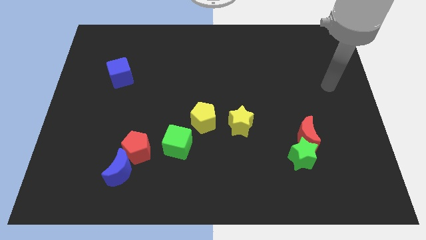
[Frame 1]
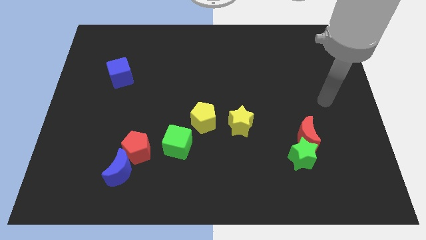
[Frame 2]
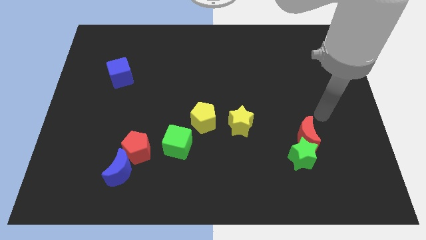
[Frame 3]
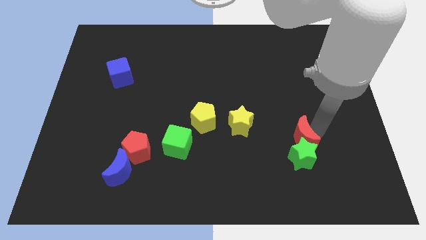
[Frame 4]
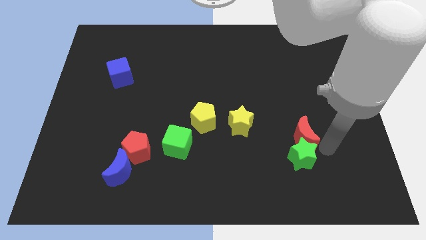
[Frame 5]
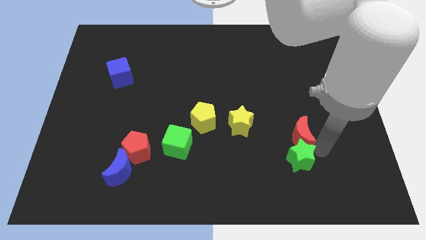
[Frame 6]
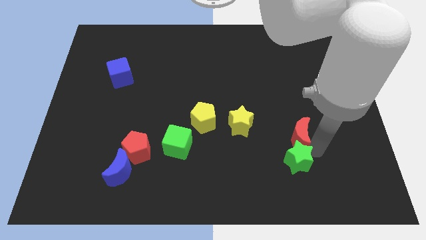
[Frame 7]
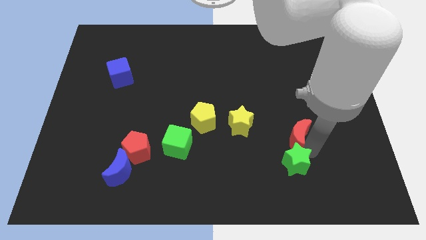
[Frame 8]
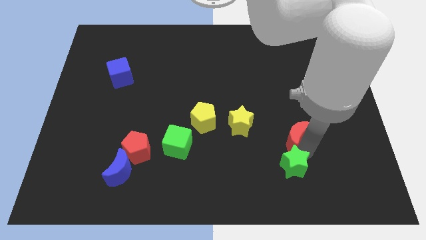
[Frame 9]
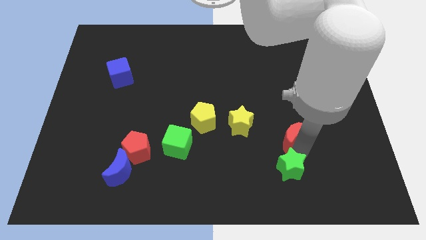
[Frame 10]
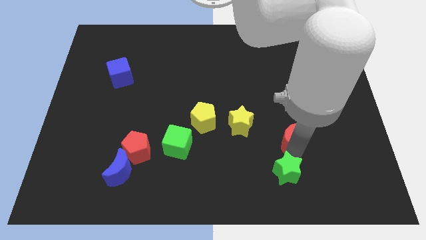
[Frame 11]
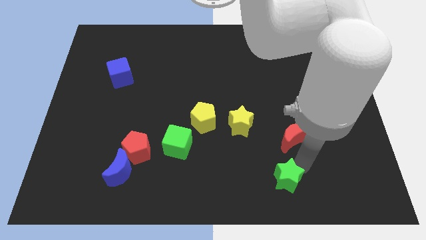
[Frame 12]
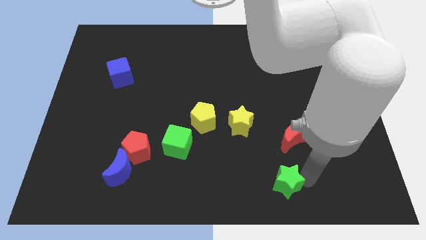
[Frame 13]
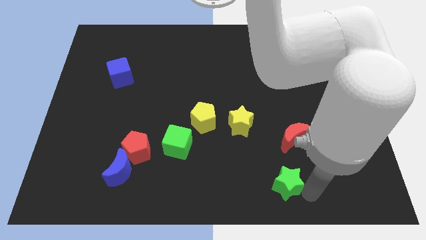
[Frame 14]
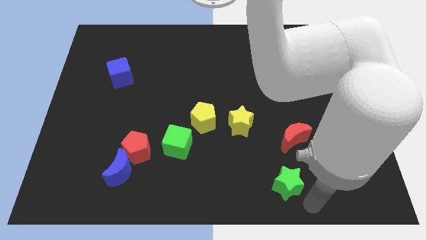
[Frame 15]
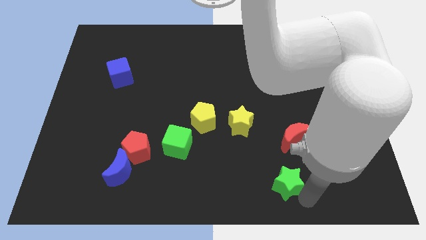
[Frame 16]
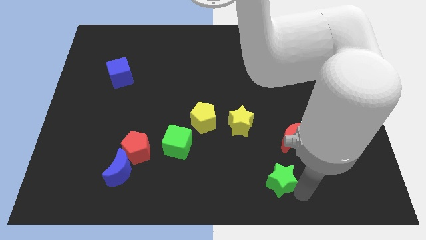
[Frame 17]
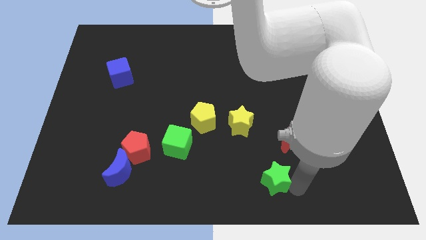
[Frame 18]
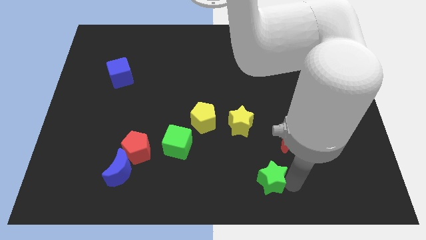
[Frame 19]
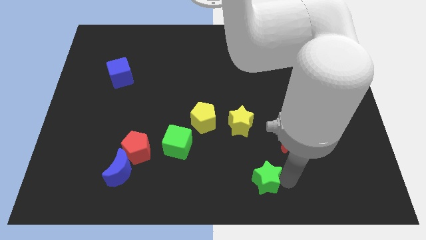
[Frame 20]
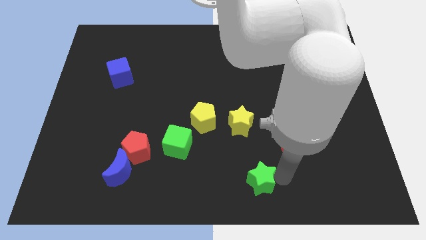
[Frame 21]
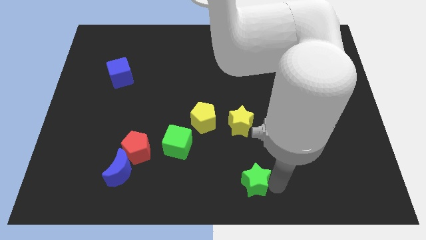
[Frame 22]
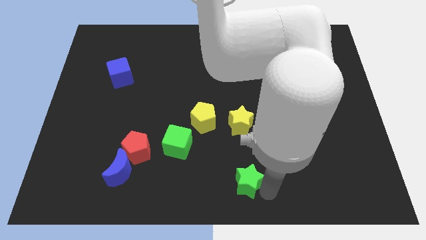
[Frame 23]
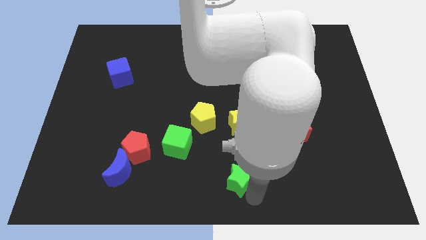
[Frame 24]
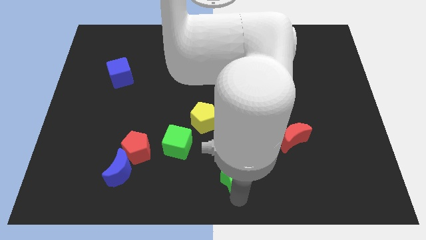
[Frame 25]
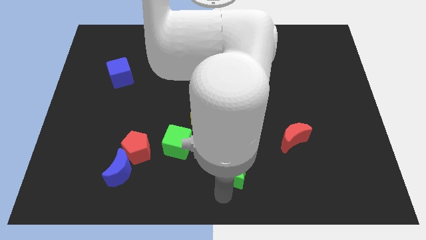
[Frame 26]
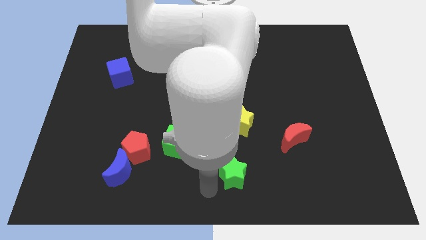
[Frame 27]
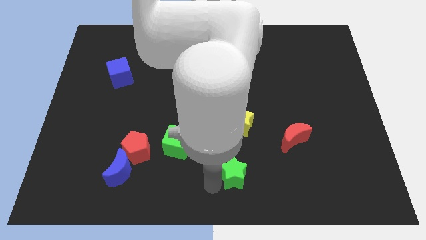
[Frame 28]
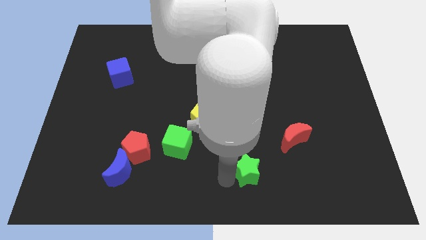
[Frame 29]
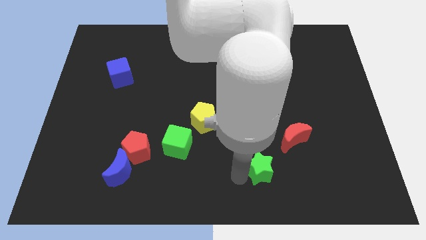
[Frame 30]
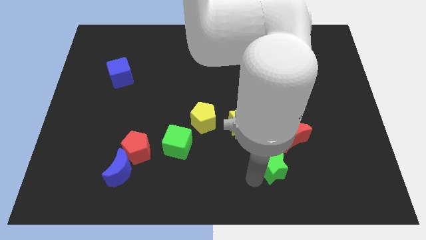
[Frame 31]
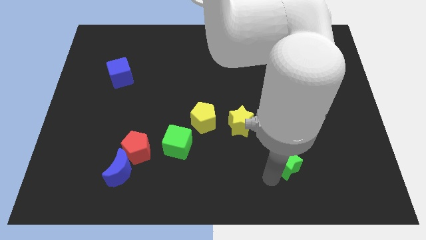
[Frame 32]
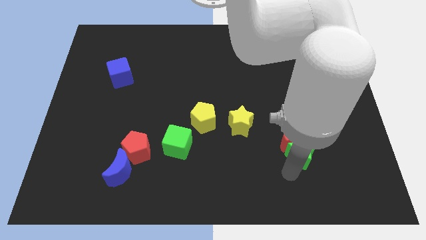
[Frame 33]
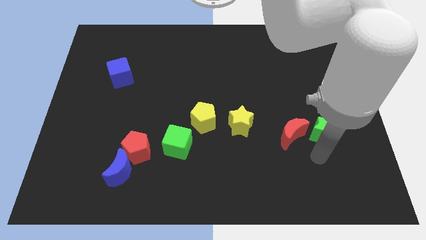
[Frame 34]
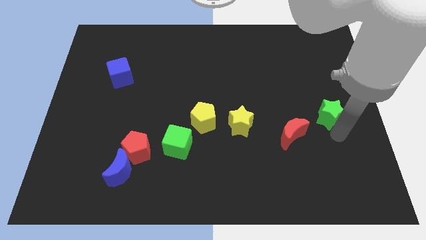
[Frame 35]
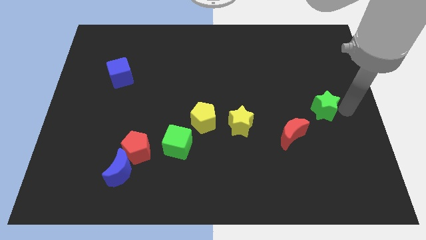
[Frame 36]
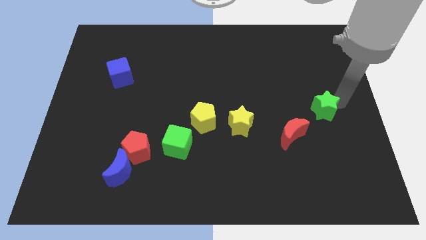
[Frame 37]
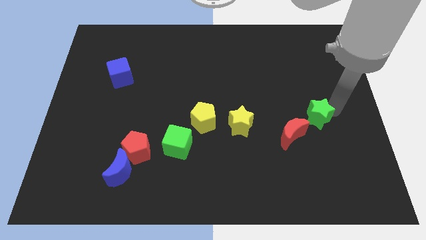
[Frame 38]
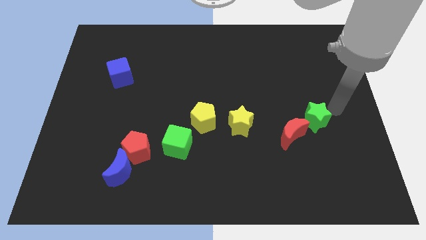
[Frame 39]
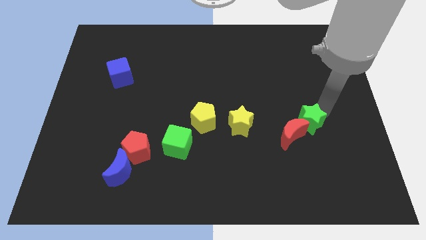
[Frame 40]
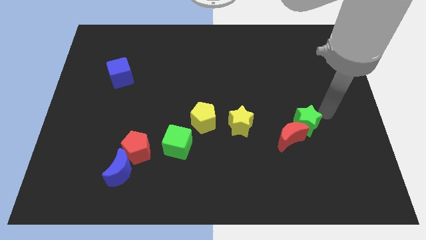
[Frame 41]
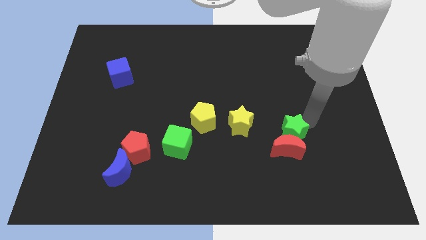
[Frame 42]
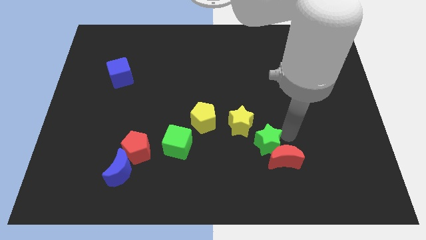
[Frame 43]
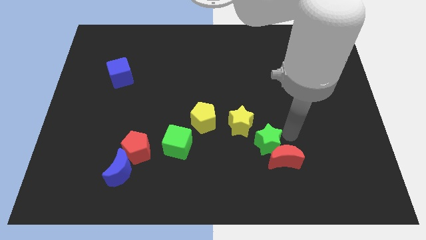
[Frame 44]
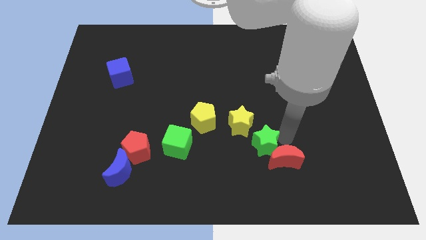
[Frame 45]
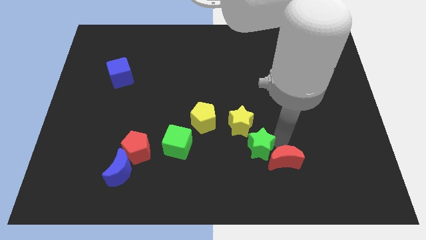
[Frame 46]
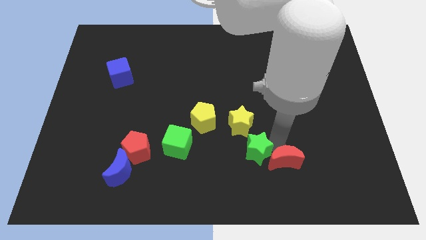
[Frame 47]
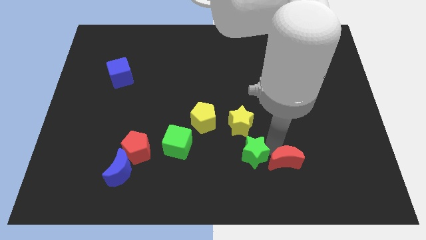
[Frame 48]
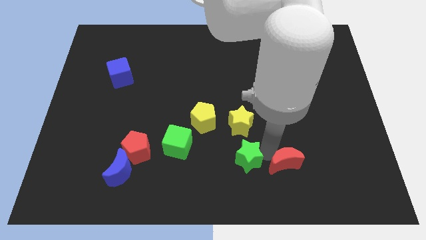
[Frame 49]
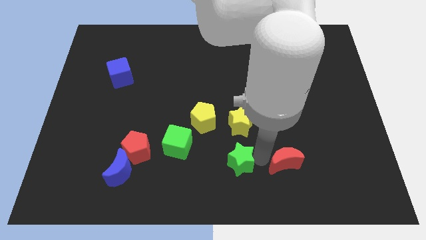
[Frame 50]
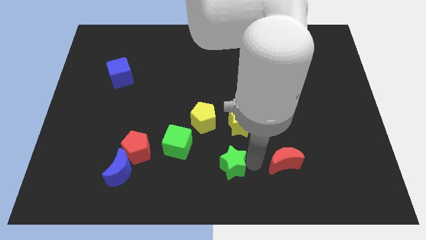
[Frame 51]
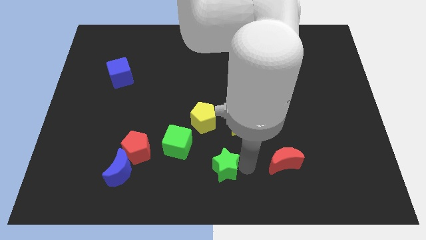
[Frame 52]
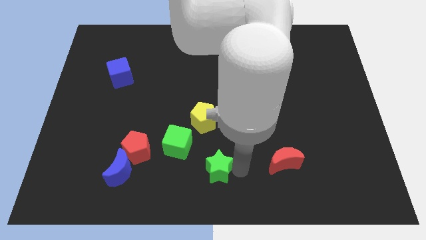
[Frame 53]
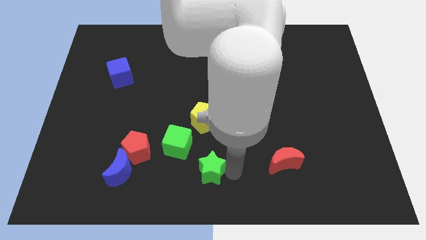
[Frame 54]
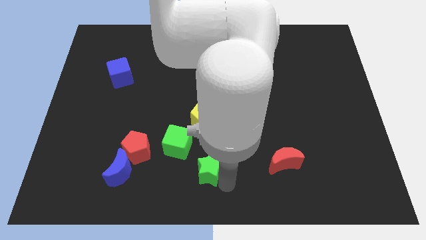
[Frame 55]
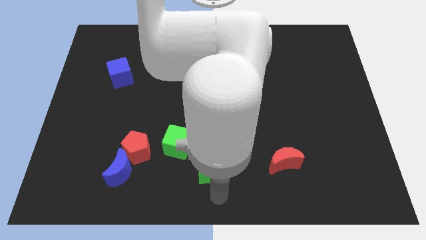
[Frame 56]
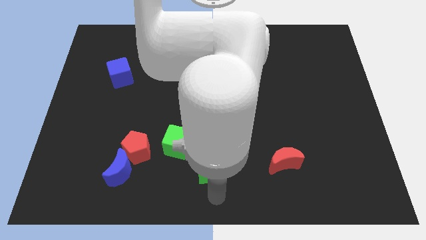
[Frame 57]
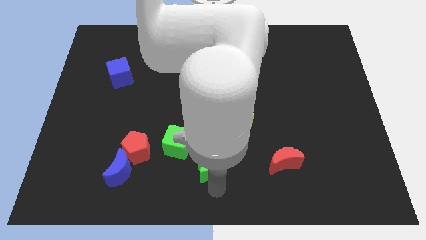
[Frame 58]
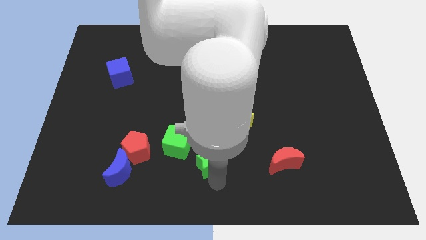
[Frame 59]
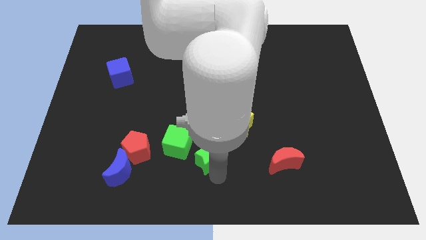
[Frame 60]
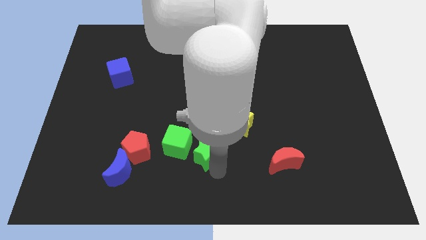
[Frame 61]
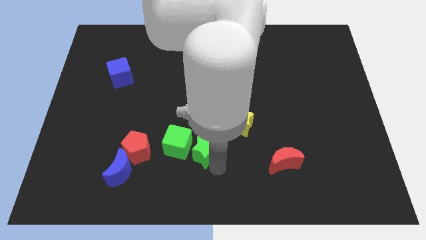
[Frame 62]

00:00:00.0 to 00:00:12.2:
move the green star next to the green cube

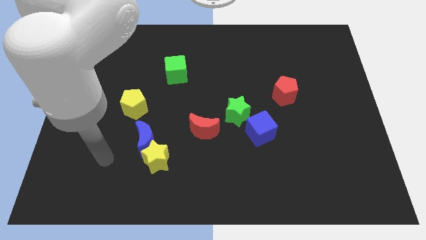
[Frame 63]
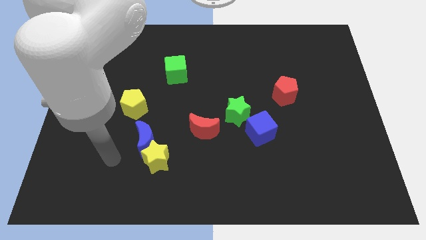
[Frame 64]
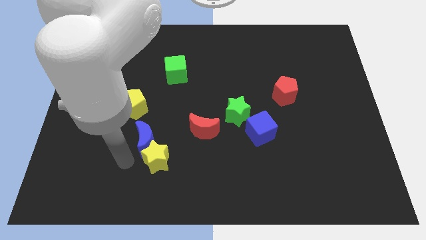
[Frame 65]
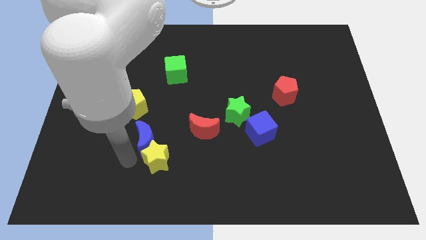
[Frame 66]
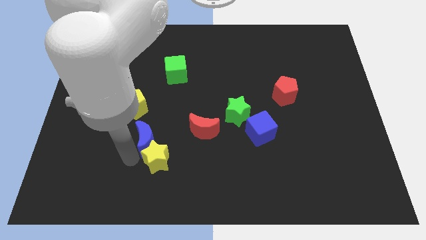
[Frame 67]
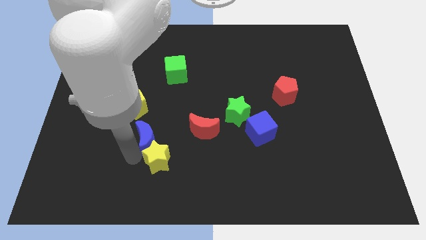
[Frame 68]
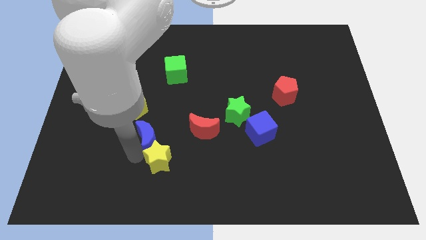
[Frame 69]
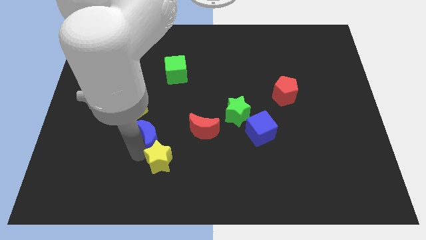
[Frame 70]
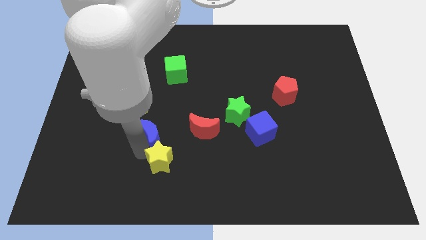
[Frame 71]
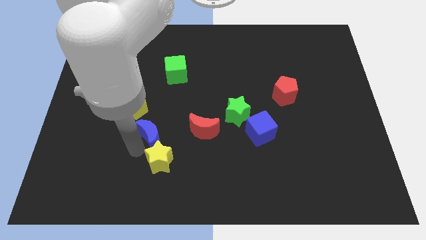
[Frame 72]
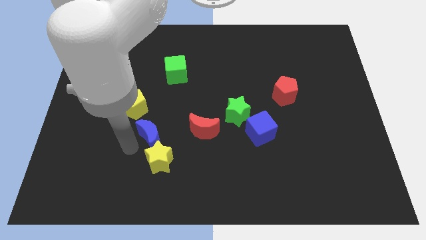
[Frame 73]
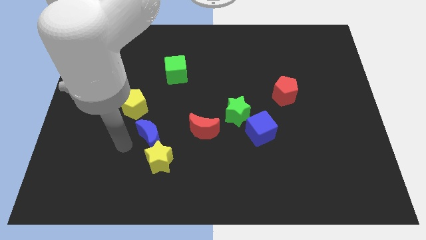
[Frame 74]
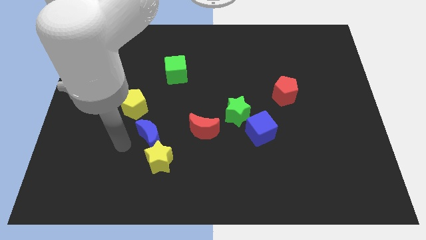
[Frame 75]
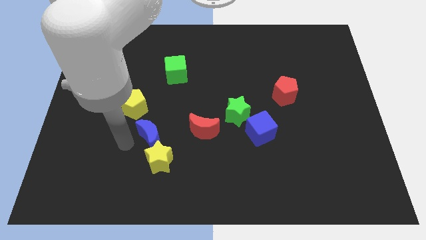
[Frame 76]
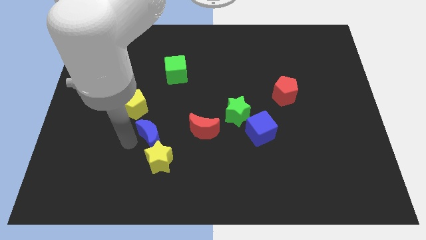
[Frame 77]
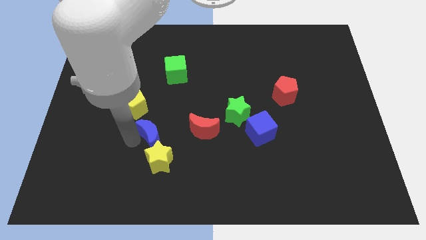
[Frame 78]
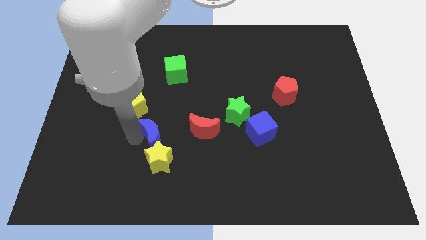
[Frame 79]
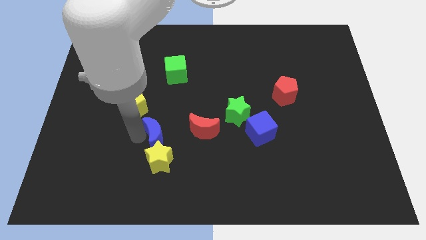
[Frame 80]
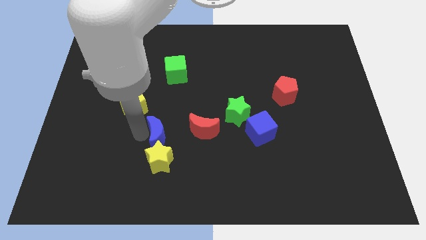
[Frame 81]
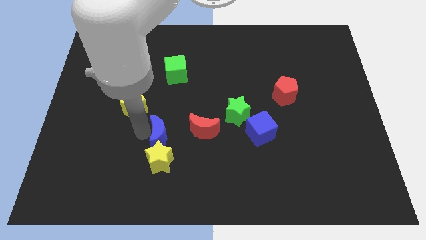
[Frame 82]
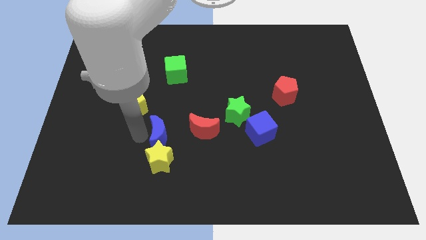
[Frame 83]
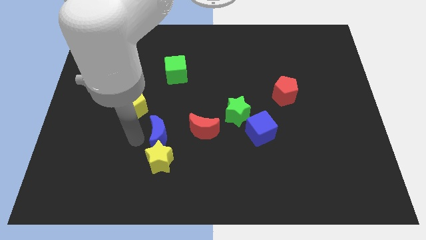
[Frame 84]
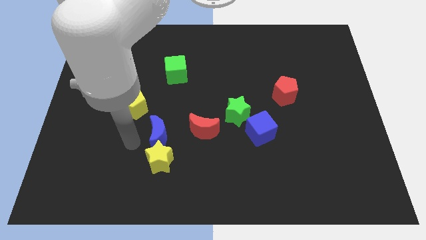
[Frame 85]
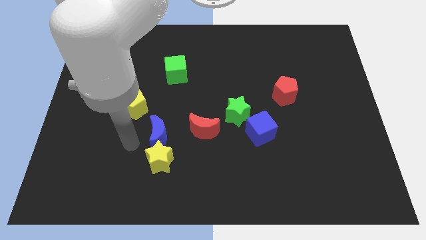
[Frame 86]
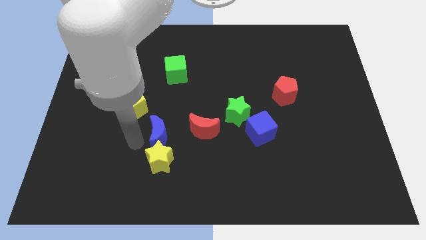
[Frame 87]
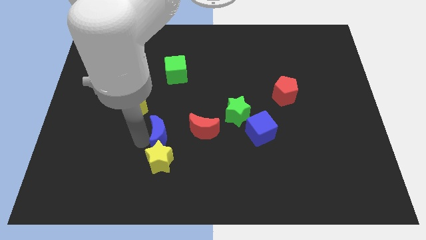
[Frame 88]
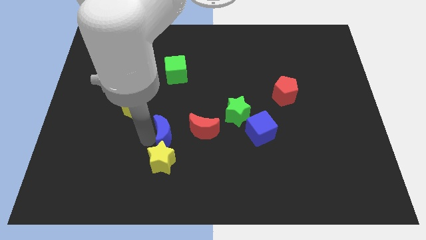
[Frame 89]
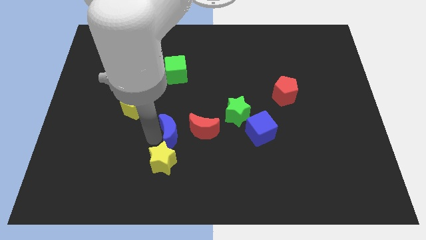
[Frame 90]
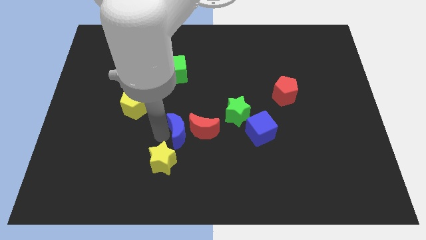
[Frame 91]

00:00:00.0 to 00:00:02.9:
put the blue moon towards the red moon
